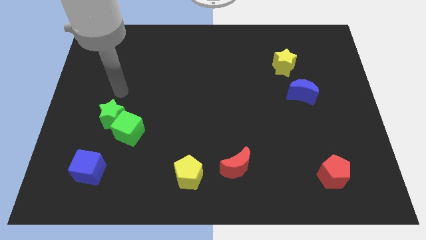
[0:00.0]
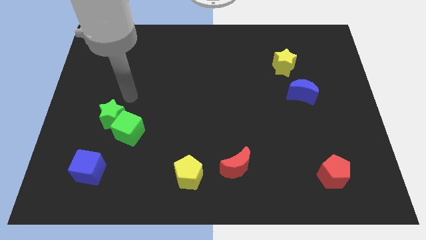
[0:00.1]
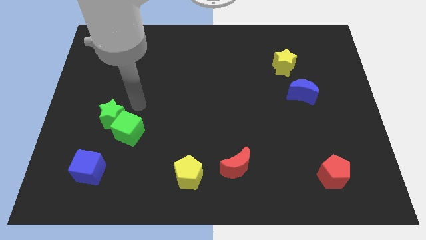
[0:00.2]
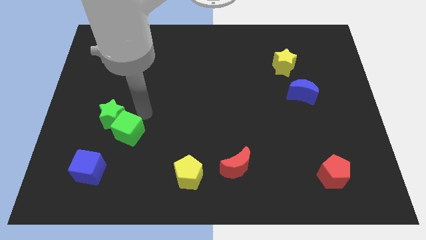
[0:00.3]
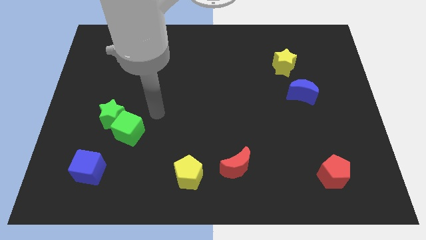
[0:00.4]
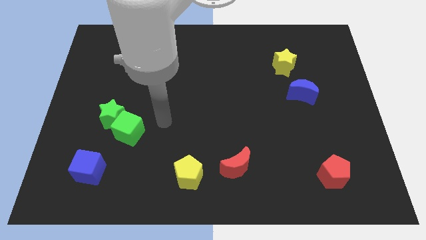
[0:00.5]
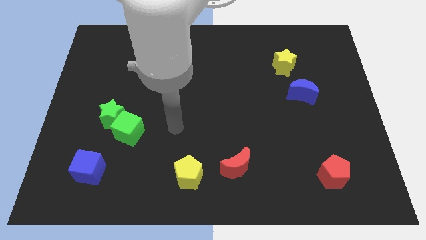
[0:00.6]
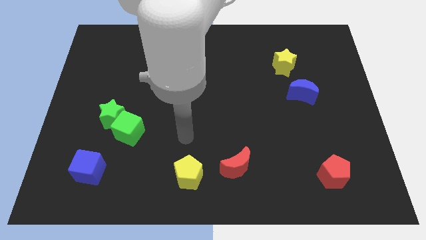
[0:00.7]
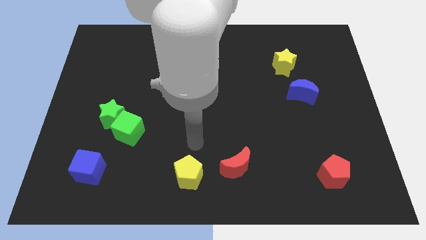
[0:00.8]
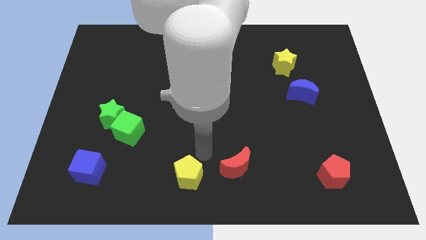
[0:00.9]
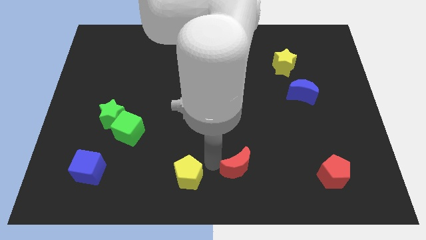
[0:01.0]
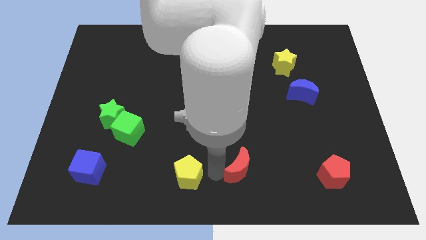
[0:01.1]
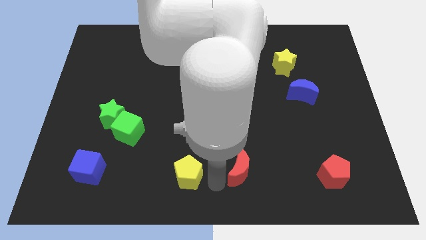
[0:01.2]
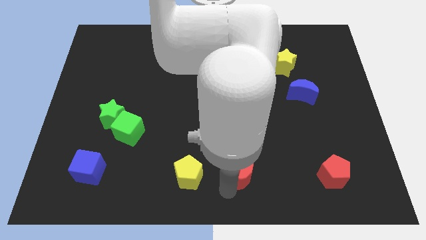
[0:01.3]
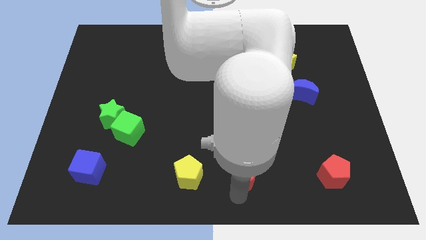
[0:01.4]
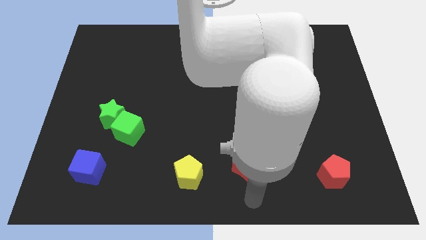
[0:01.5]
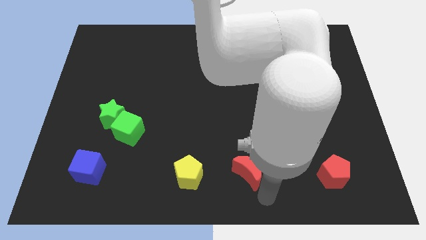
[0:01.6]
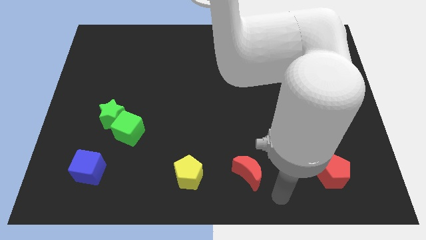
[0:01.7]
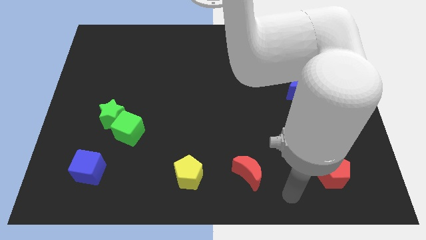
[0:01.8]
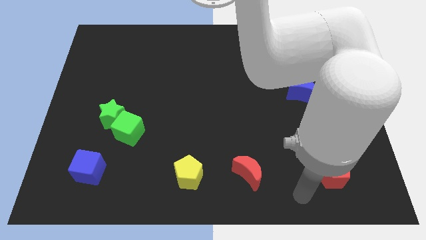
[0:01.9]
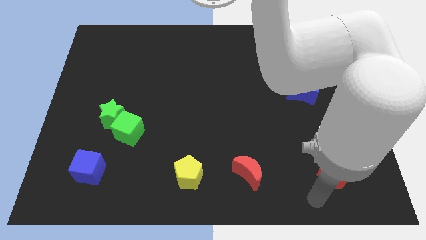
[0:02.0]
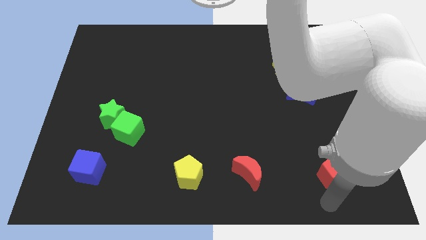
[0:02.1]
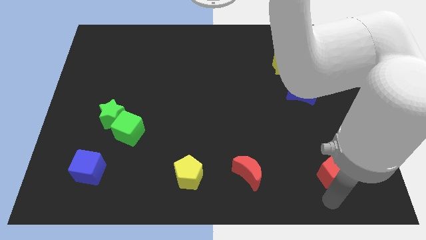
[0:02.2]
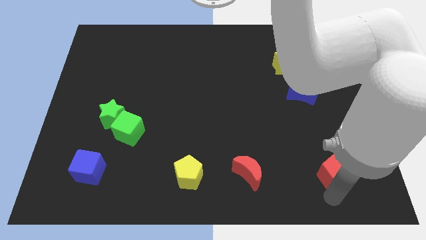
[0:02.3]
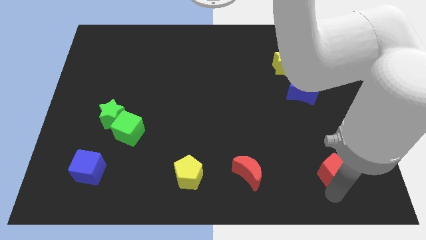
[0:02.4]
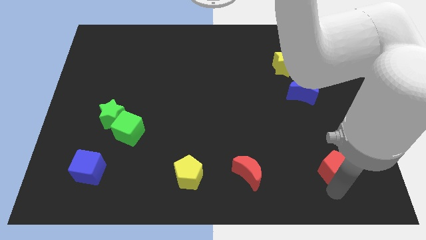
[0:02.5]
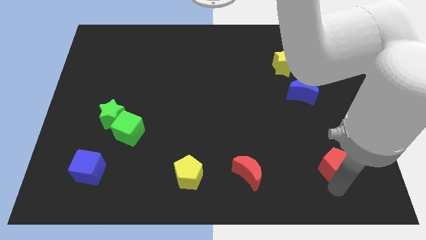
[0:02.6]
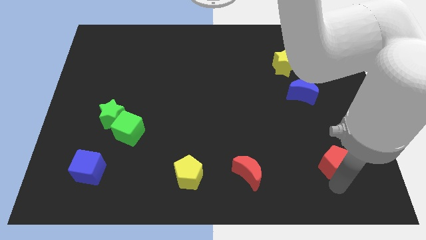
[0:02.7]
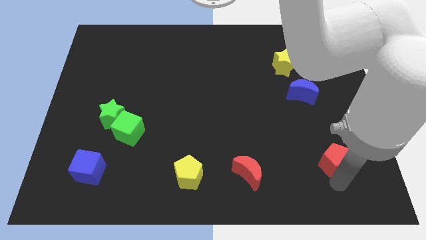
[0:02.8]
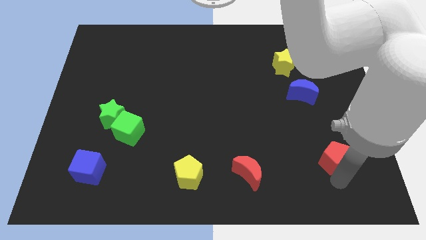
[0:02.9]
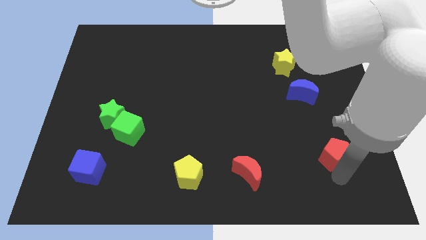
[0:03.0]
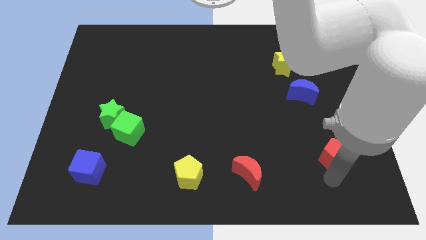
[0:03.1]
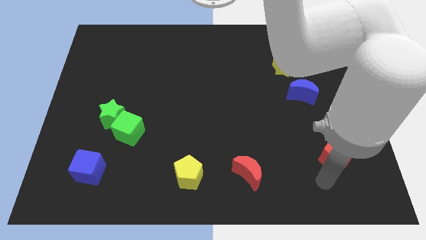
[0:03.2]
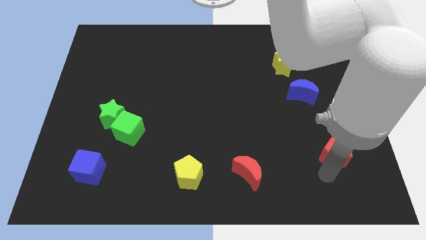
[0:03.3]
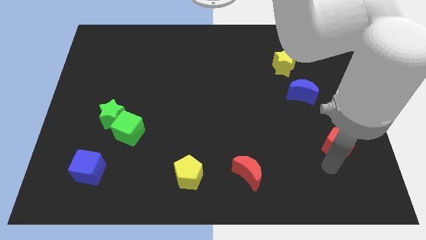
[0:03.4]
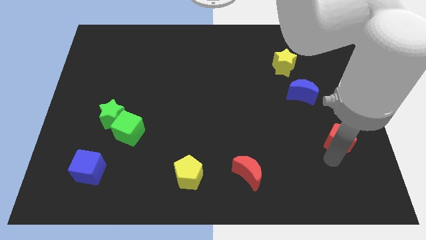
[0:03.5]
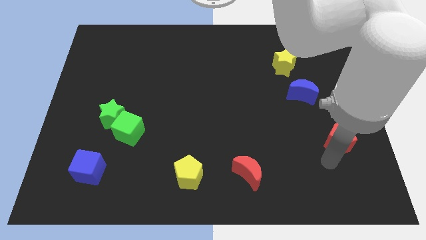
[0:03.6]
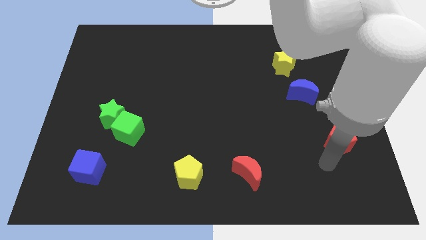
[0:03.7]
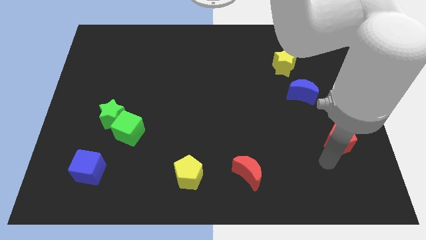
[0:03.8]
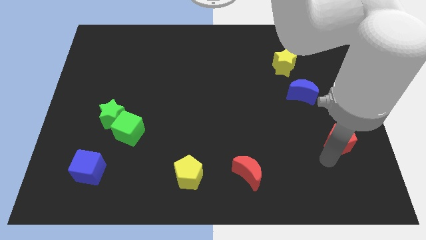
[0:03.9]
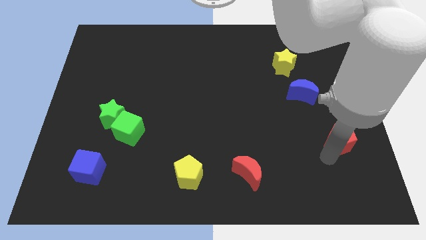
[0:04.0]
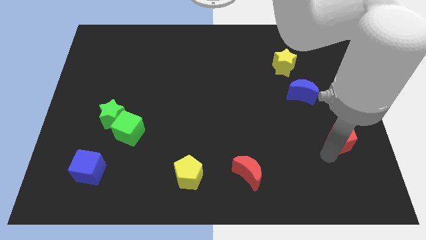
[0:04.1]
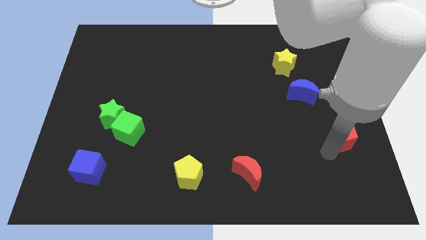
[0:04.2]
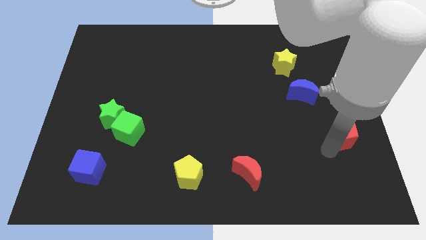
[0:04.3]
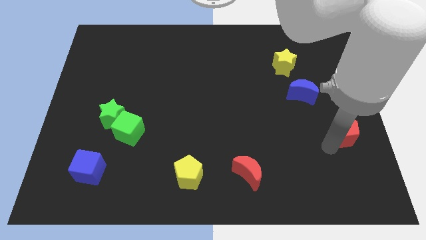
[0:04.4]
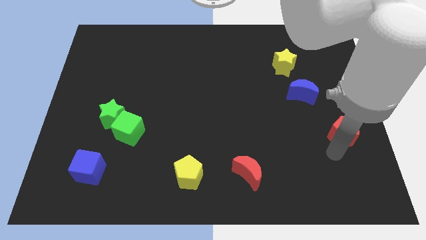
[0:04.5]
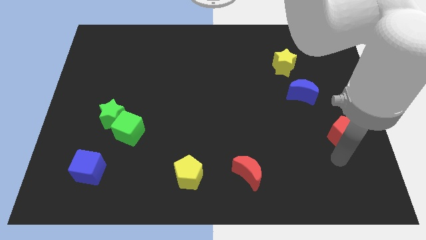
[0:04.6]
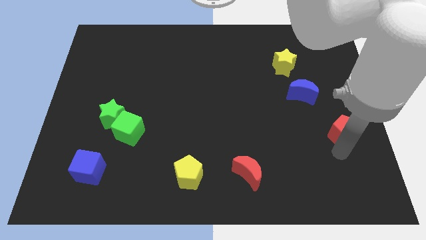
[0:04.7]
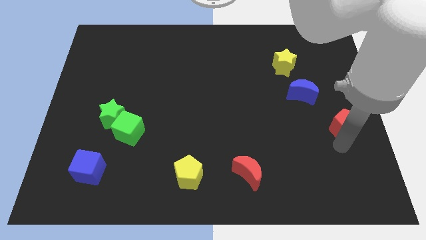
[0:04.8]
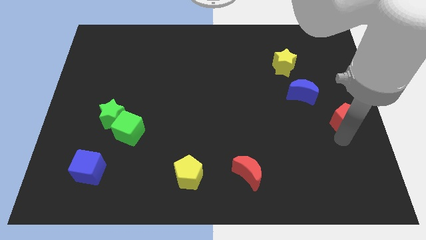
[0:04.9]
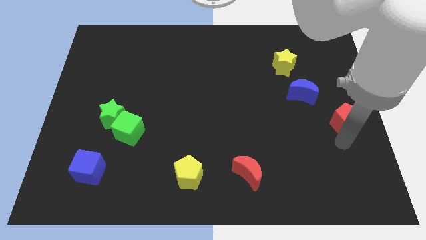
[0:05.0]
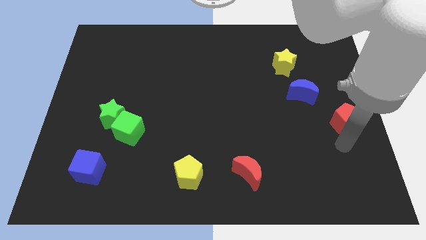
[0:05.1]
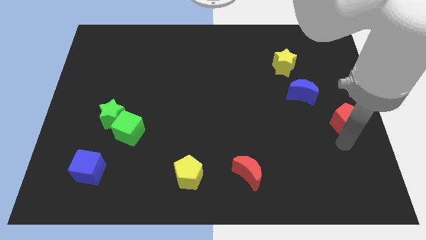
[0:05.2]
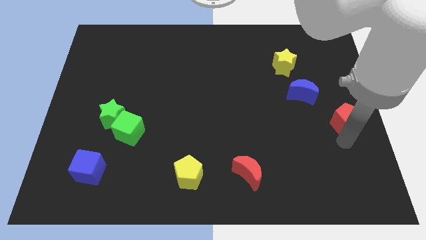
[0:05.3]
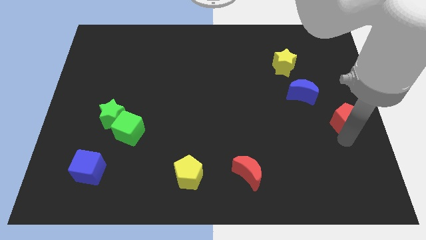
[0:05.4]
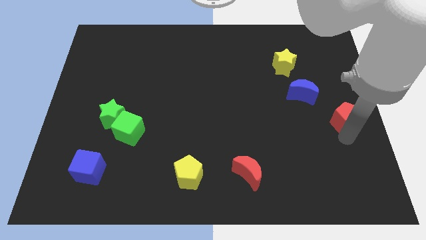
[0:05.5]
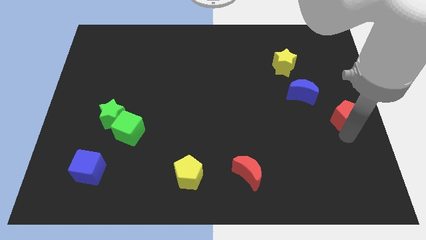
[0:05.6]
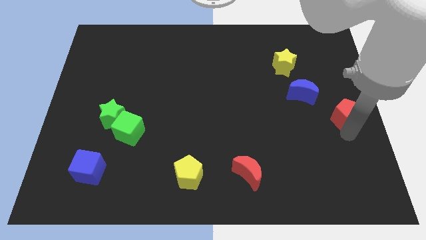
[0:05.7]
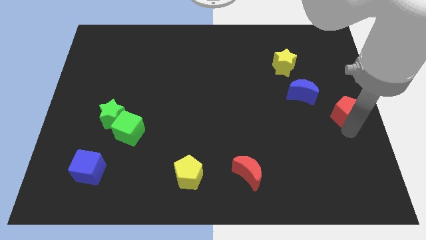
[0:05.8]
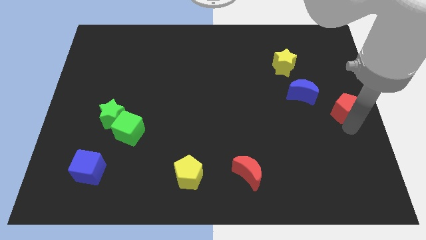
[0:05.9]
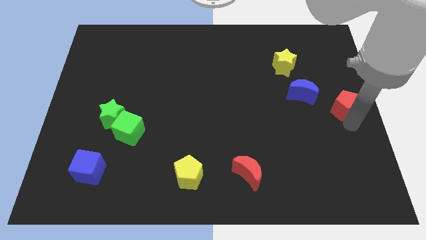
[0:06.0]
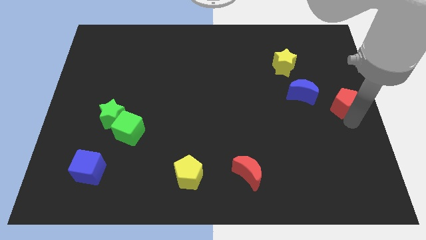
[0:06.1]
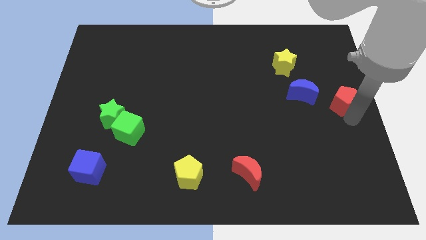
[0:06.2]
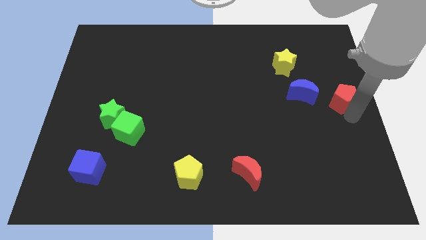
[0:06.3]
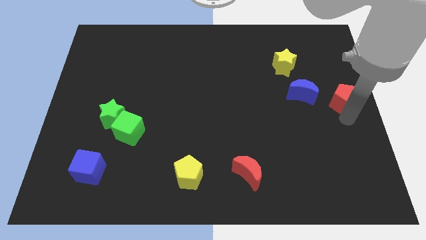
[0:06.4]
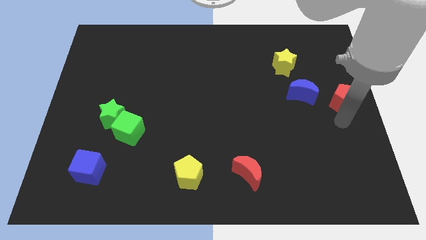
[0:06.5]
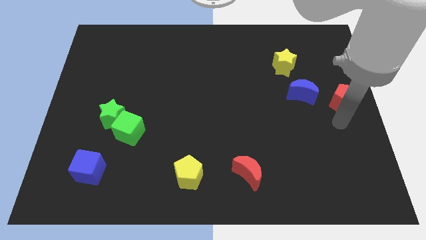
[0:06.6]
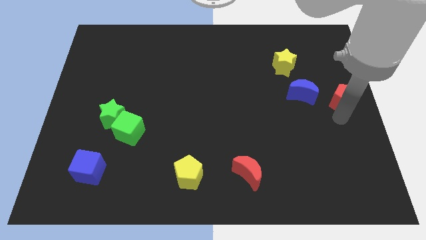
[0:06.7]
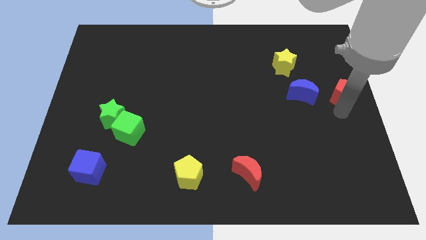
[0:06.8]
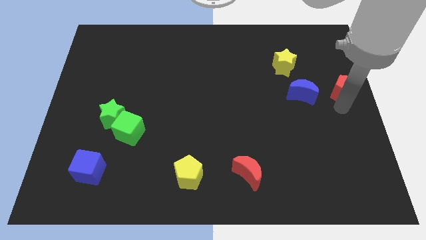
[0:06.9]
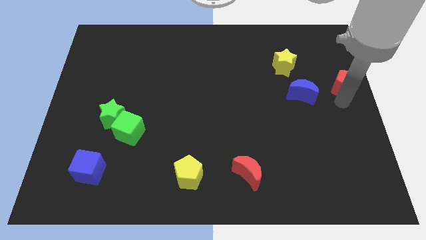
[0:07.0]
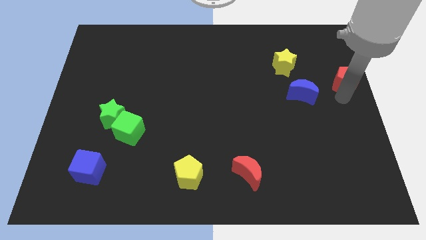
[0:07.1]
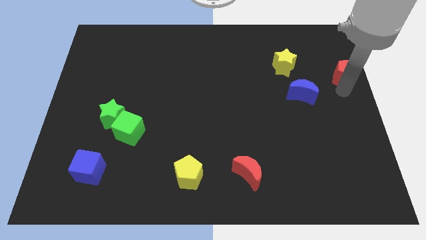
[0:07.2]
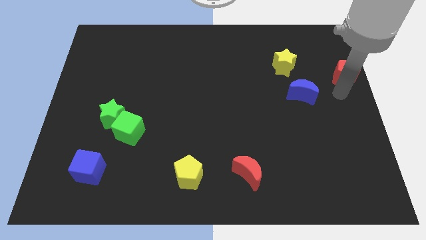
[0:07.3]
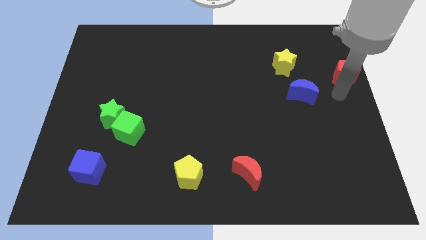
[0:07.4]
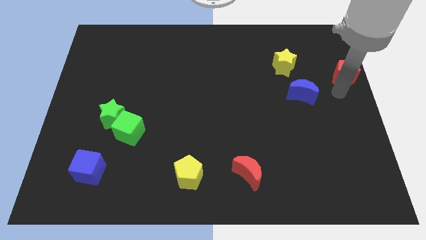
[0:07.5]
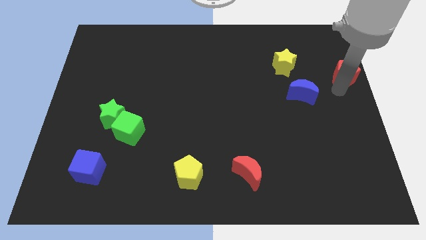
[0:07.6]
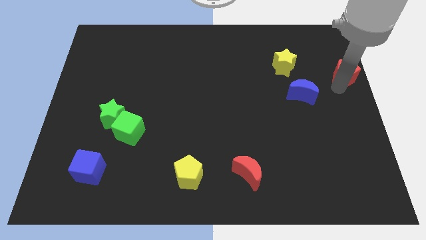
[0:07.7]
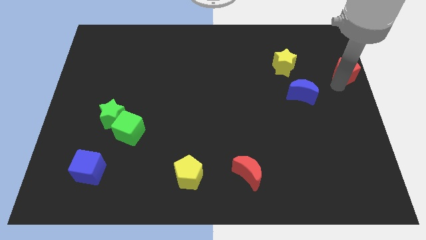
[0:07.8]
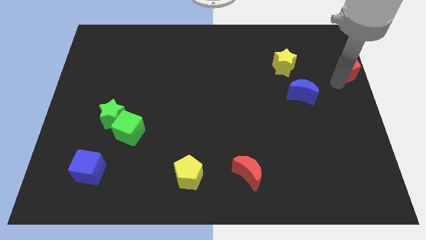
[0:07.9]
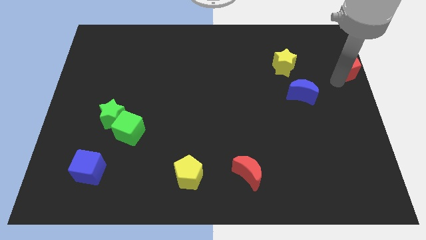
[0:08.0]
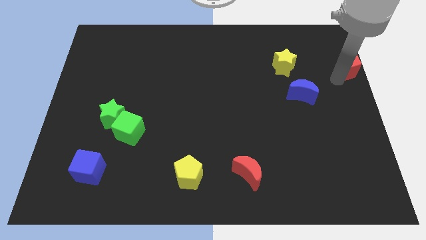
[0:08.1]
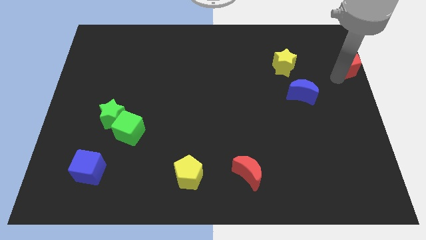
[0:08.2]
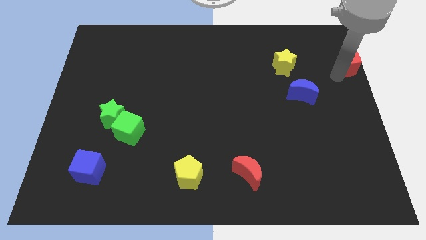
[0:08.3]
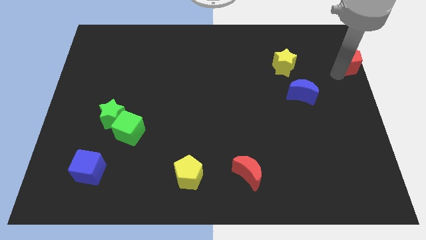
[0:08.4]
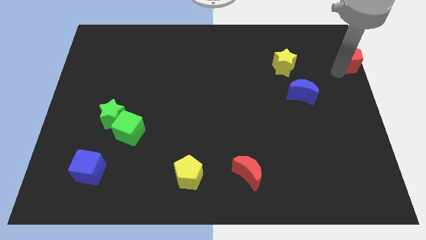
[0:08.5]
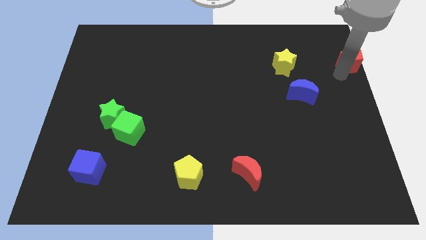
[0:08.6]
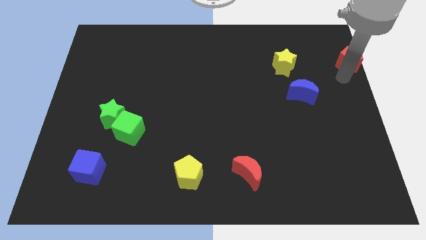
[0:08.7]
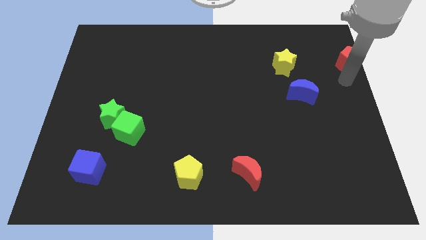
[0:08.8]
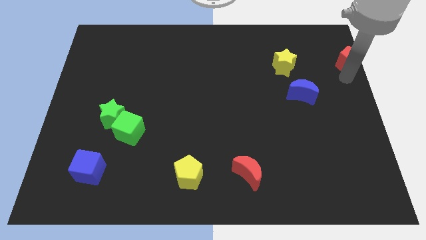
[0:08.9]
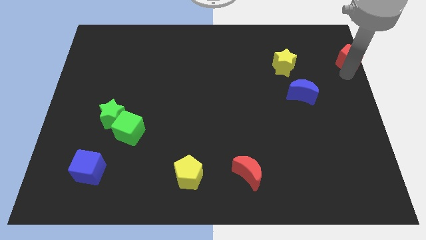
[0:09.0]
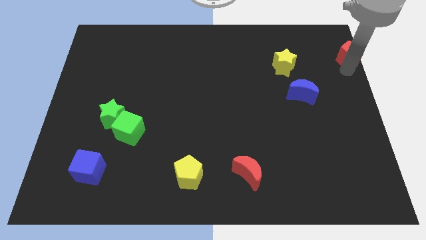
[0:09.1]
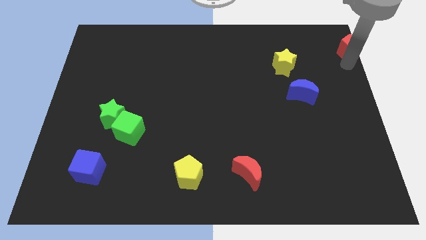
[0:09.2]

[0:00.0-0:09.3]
move the red pentagon to the top right corner
